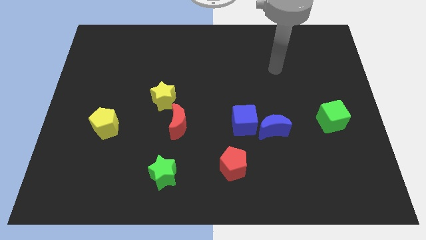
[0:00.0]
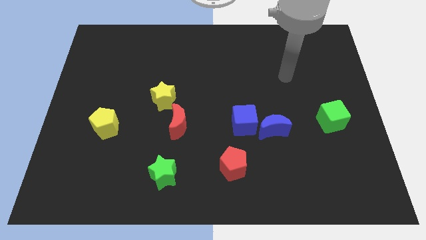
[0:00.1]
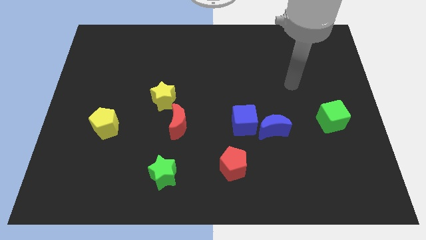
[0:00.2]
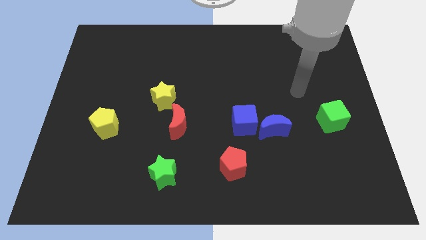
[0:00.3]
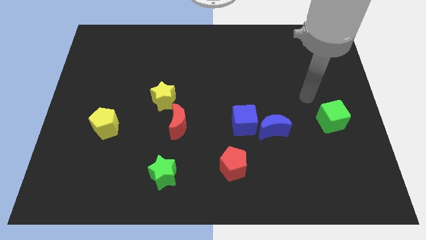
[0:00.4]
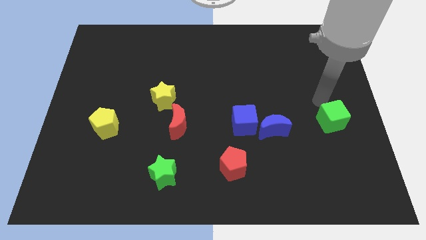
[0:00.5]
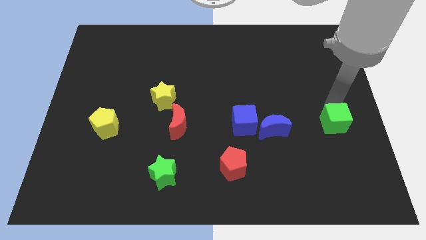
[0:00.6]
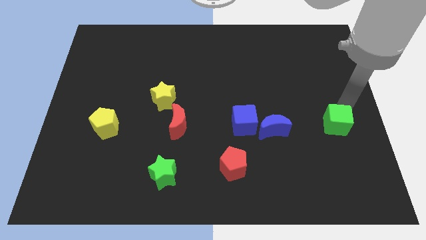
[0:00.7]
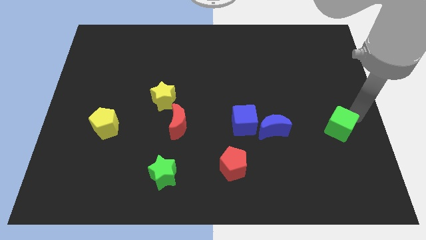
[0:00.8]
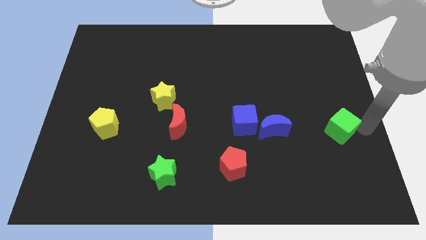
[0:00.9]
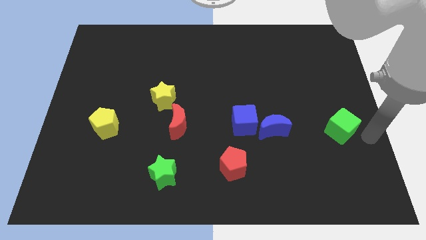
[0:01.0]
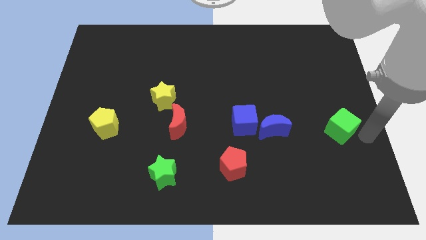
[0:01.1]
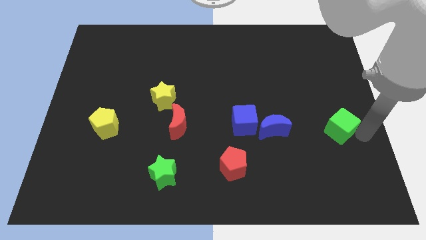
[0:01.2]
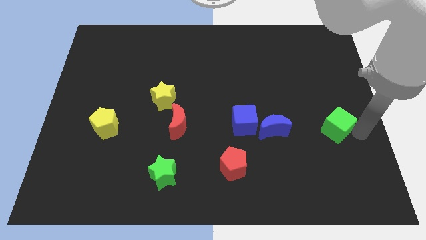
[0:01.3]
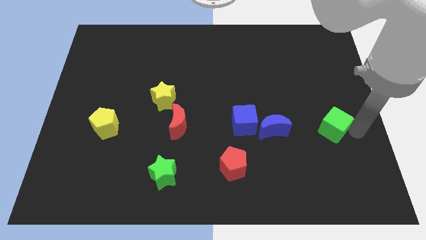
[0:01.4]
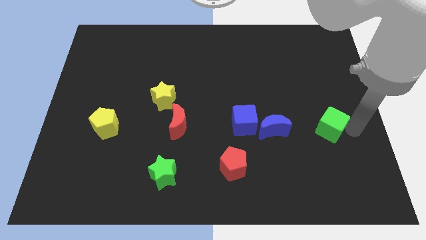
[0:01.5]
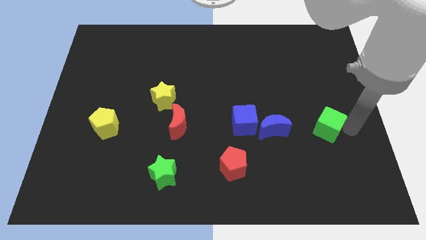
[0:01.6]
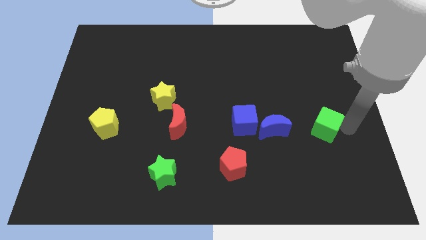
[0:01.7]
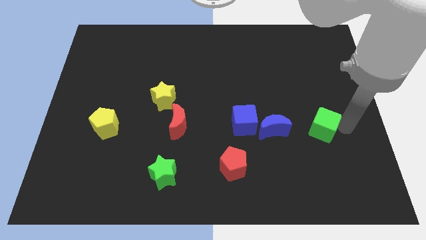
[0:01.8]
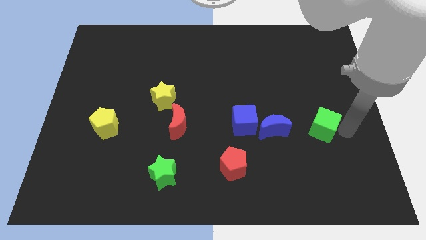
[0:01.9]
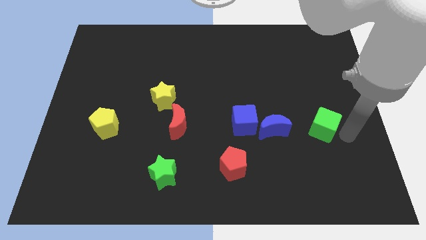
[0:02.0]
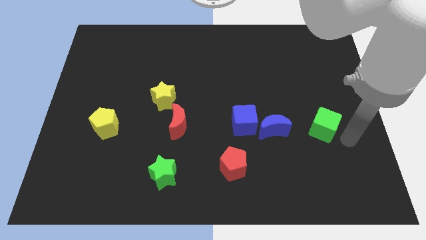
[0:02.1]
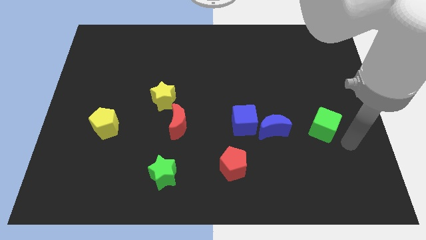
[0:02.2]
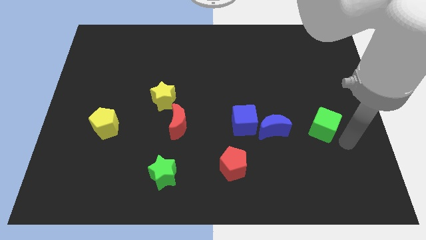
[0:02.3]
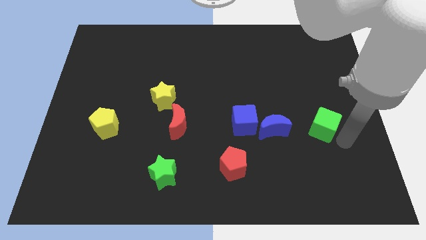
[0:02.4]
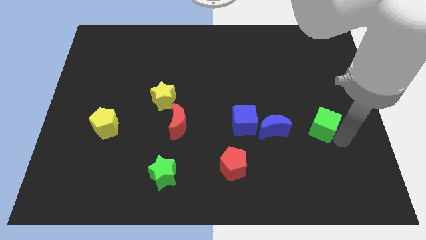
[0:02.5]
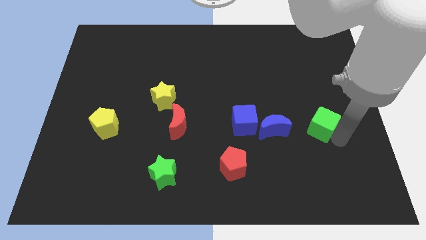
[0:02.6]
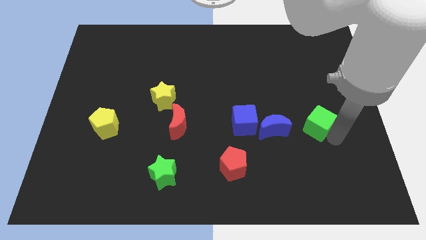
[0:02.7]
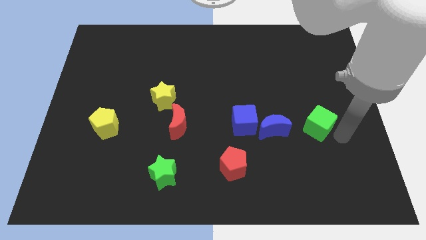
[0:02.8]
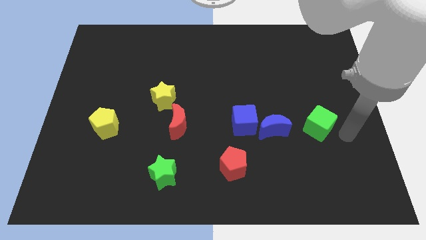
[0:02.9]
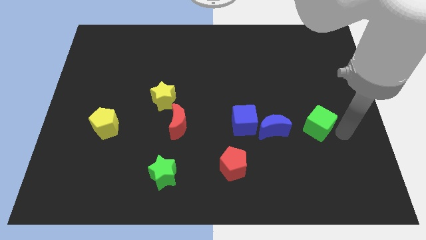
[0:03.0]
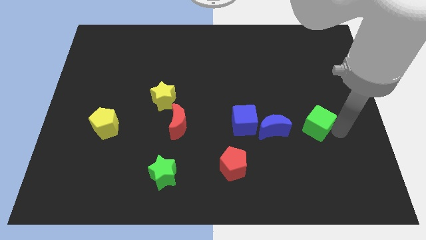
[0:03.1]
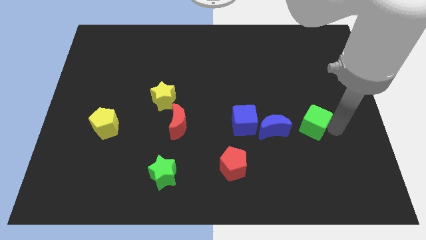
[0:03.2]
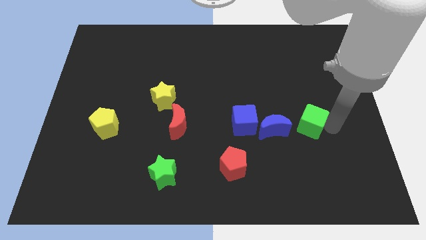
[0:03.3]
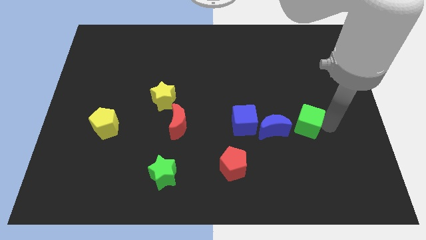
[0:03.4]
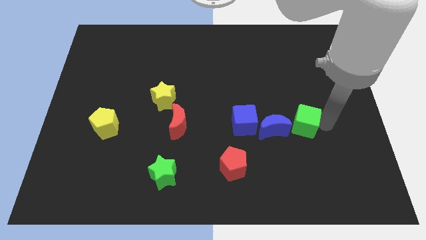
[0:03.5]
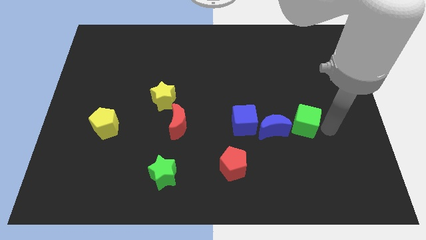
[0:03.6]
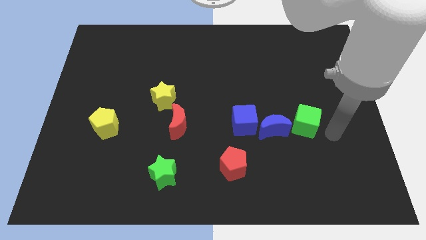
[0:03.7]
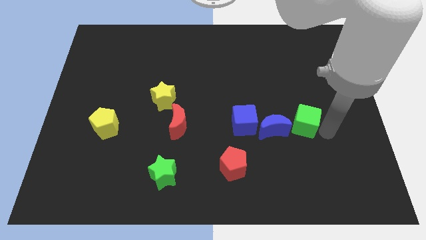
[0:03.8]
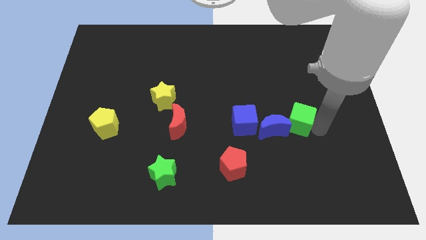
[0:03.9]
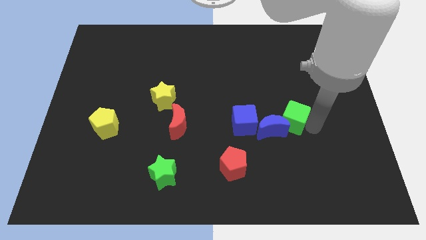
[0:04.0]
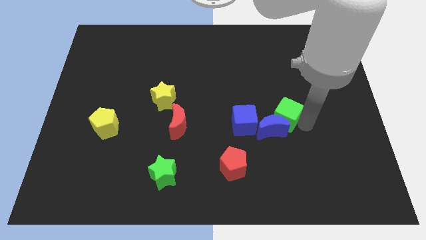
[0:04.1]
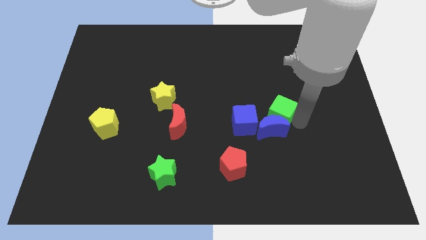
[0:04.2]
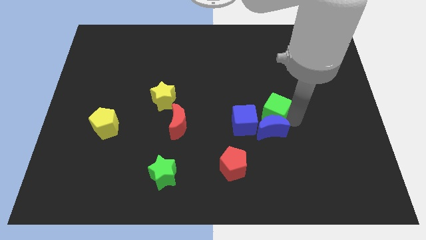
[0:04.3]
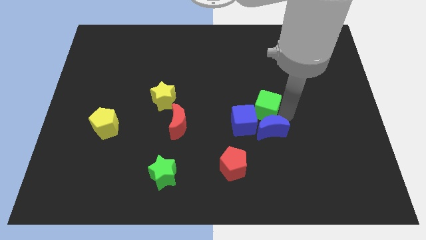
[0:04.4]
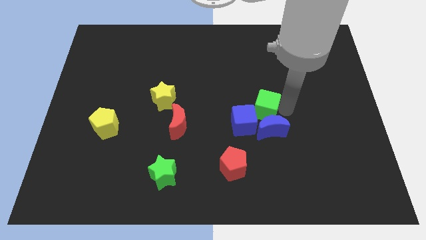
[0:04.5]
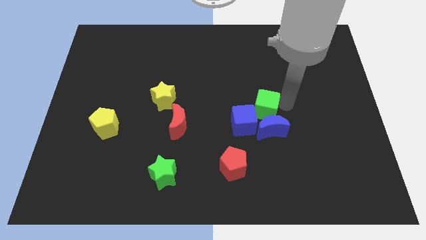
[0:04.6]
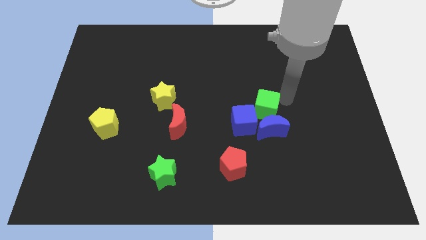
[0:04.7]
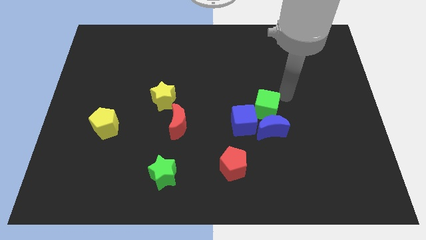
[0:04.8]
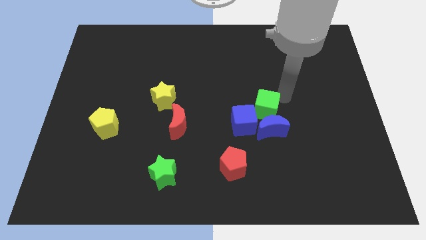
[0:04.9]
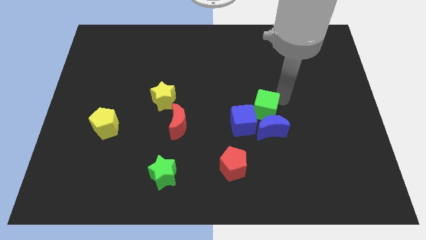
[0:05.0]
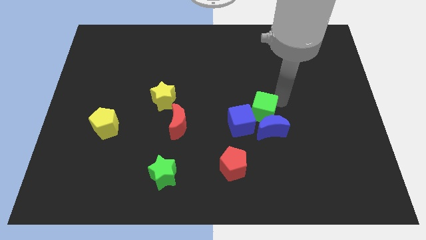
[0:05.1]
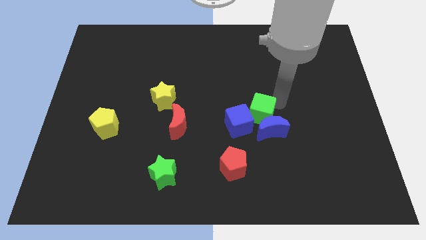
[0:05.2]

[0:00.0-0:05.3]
put the green cube next to the blue cube

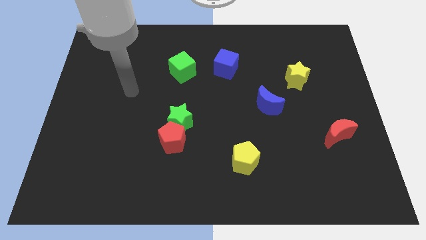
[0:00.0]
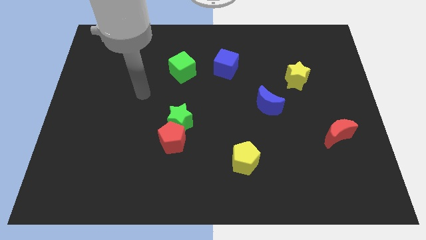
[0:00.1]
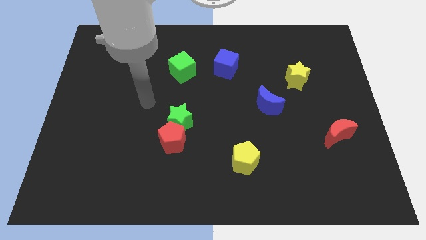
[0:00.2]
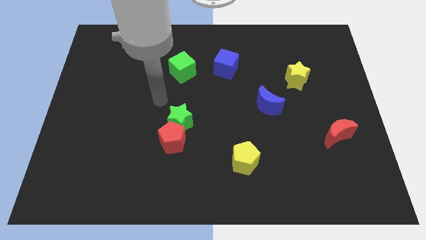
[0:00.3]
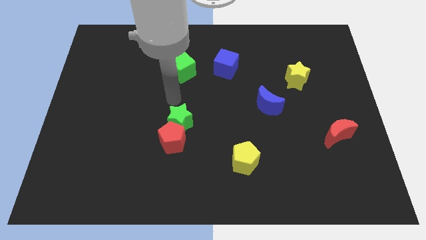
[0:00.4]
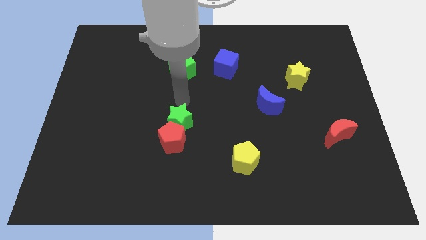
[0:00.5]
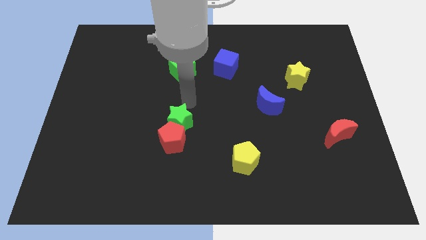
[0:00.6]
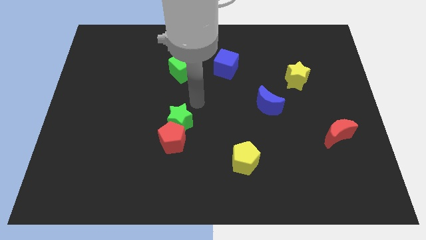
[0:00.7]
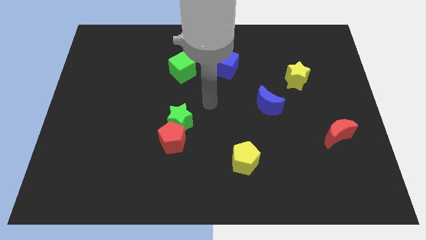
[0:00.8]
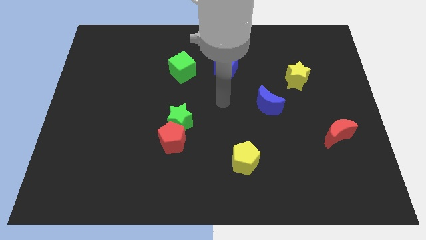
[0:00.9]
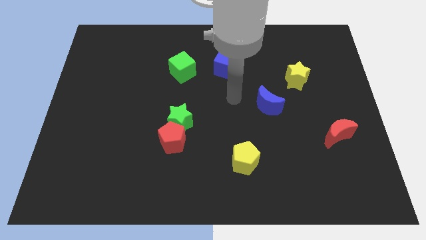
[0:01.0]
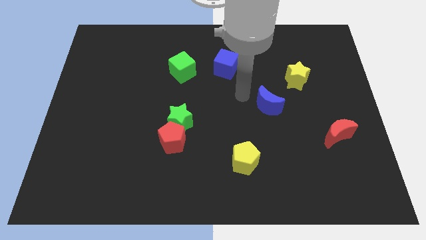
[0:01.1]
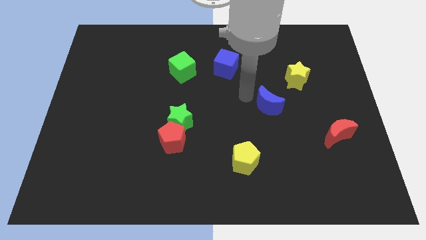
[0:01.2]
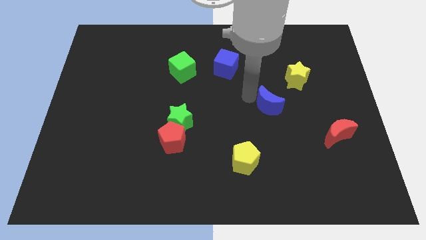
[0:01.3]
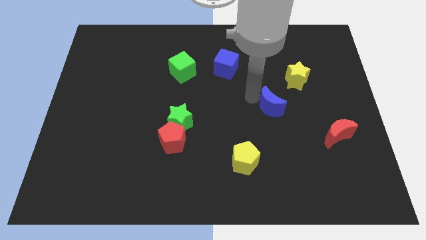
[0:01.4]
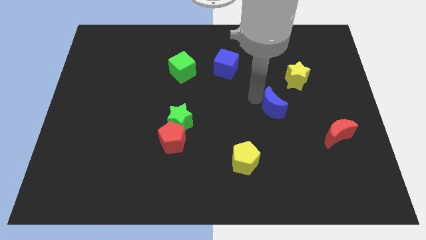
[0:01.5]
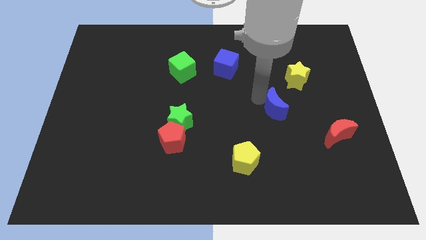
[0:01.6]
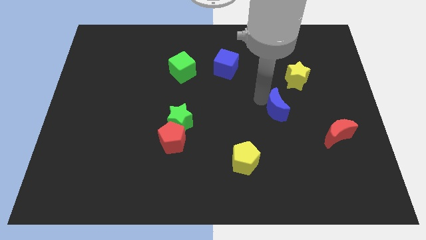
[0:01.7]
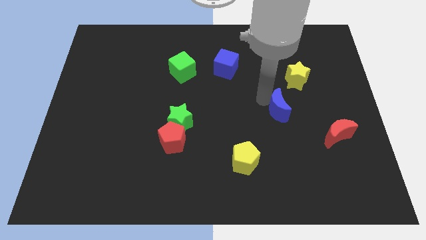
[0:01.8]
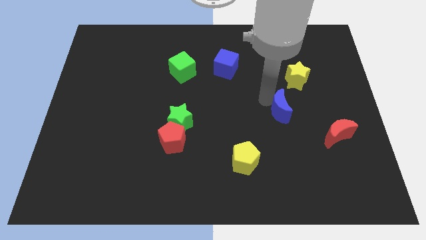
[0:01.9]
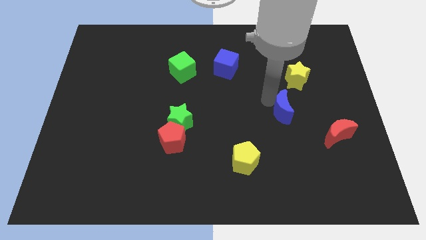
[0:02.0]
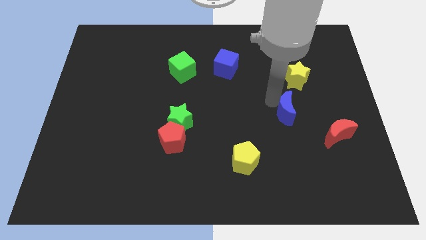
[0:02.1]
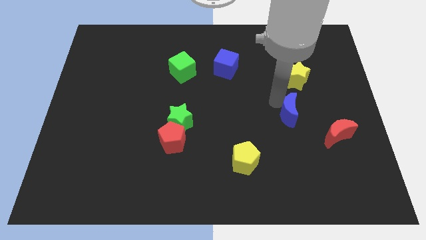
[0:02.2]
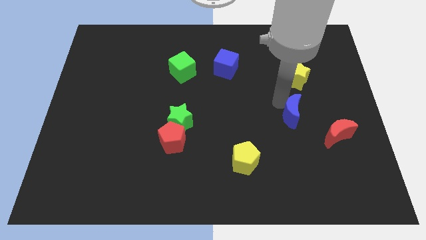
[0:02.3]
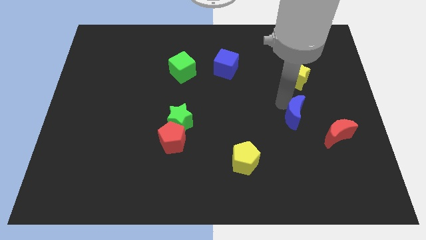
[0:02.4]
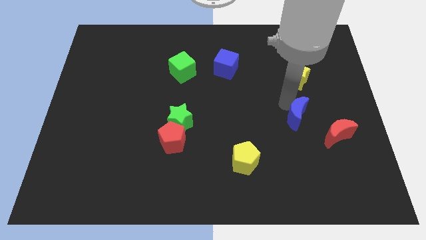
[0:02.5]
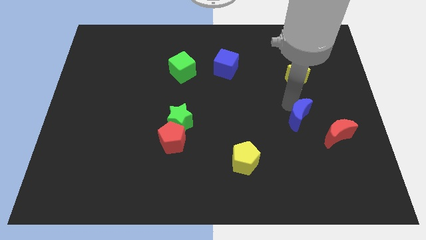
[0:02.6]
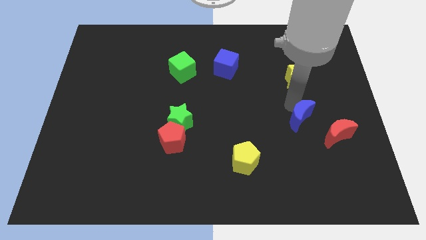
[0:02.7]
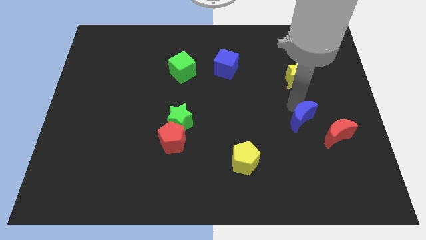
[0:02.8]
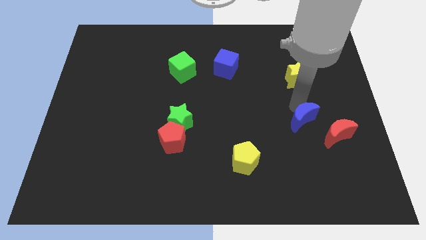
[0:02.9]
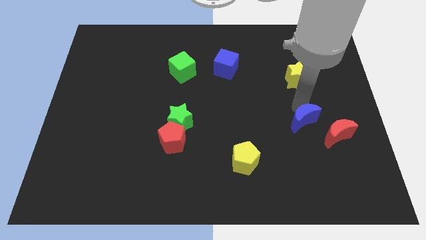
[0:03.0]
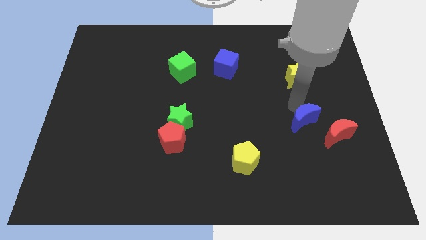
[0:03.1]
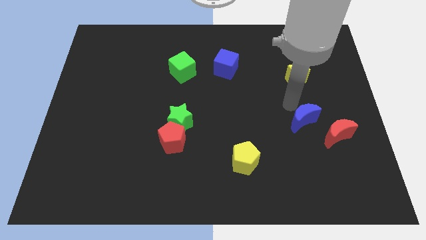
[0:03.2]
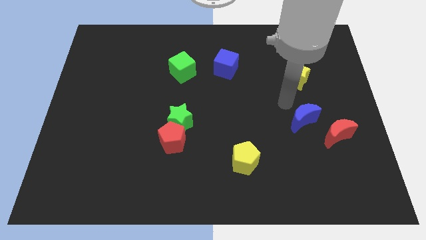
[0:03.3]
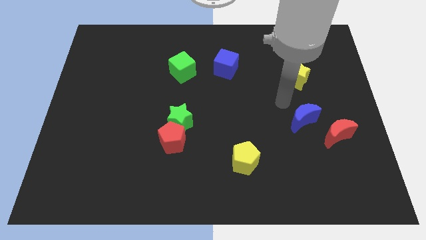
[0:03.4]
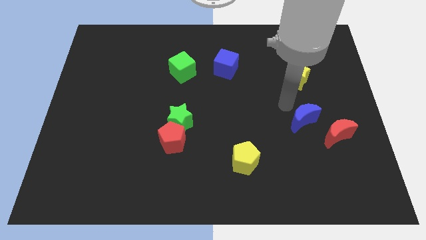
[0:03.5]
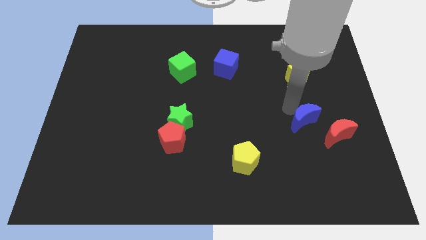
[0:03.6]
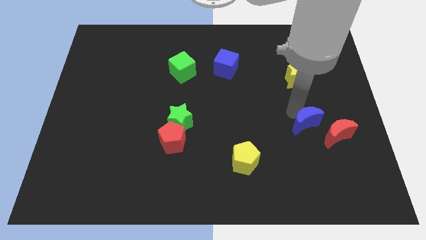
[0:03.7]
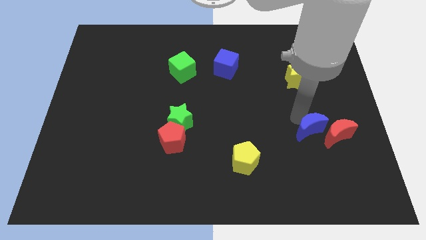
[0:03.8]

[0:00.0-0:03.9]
push the blue moon to the red moon
